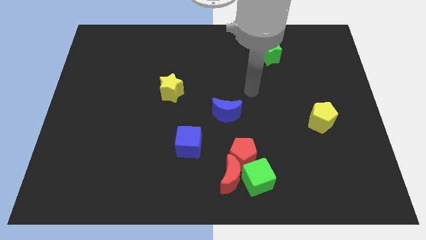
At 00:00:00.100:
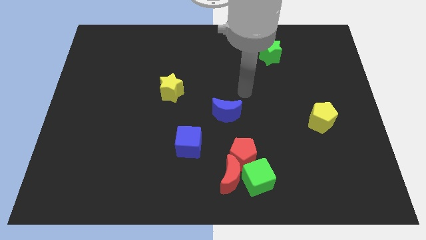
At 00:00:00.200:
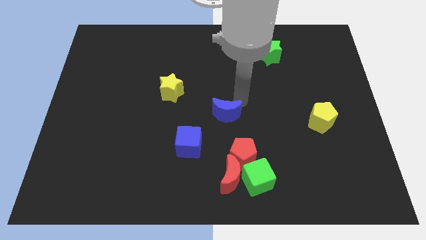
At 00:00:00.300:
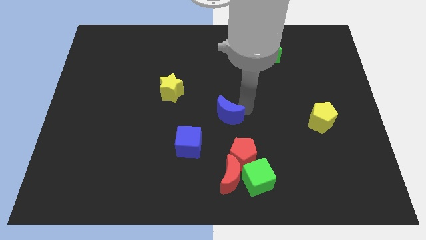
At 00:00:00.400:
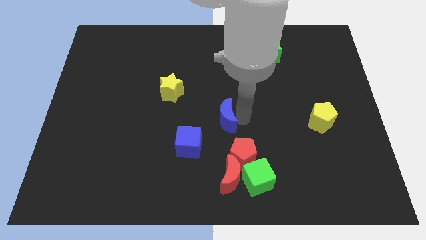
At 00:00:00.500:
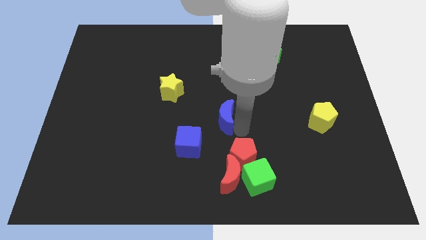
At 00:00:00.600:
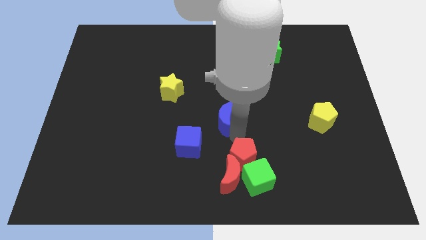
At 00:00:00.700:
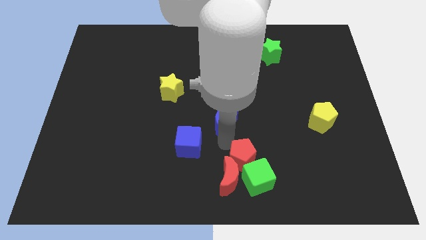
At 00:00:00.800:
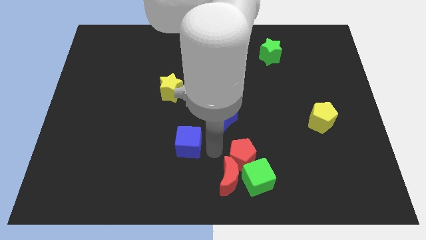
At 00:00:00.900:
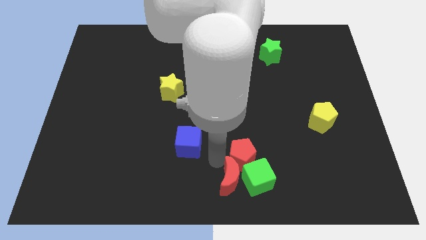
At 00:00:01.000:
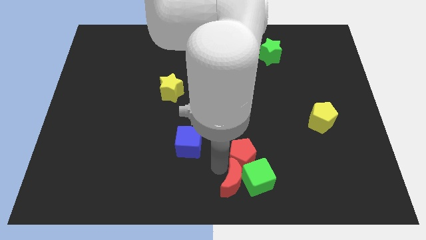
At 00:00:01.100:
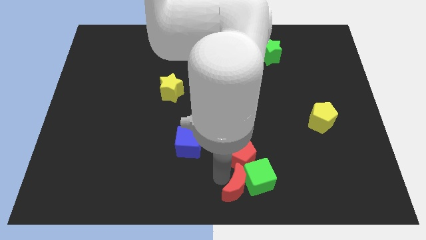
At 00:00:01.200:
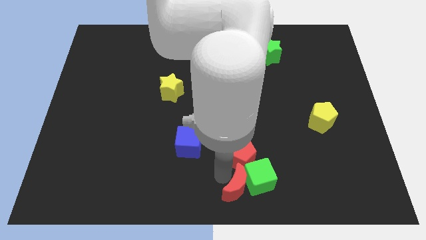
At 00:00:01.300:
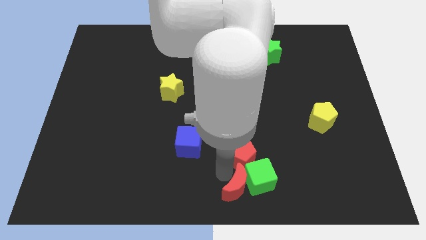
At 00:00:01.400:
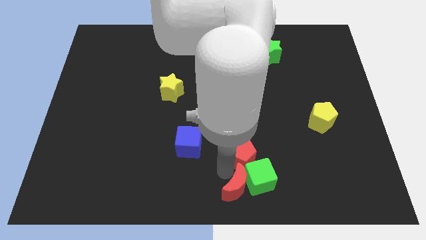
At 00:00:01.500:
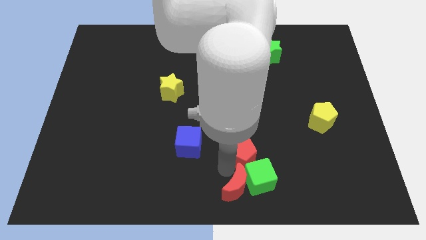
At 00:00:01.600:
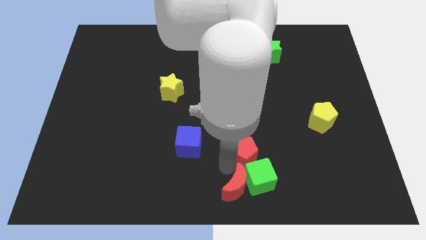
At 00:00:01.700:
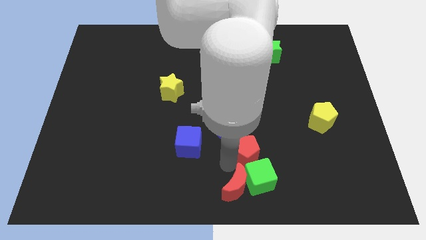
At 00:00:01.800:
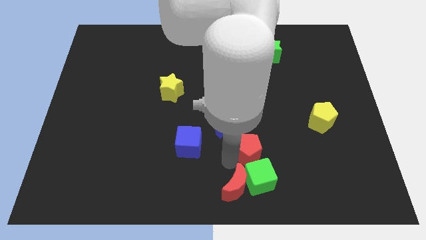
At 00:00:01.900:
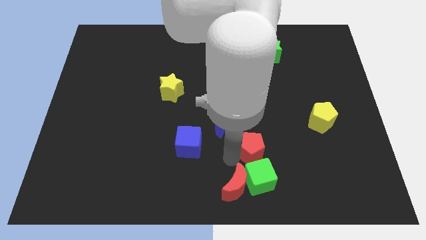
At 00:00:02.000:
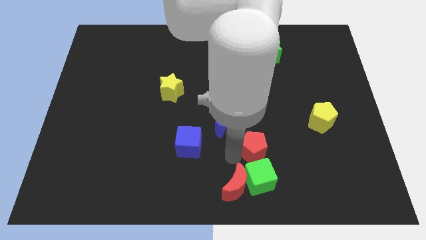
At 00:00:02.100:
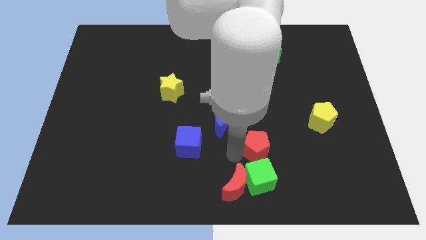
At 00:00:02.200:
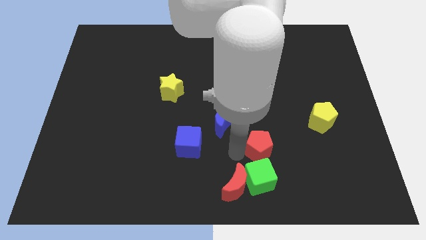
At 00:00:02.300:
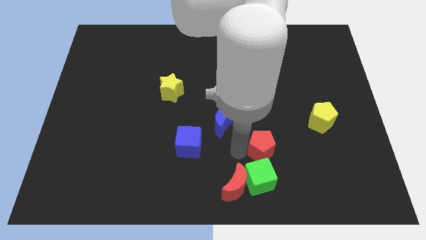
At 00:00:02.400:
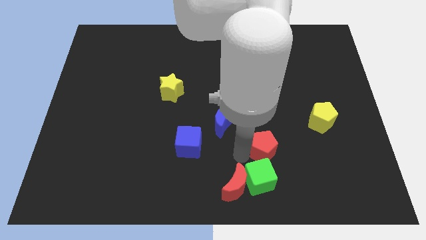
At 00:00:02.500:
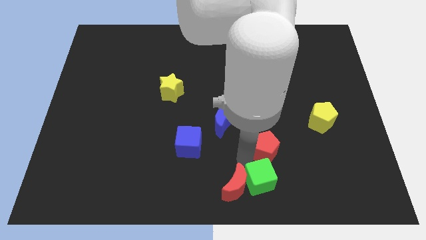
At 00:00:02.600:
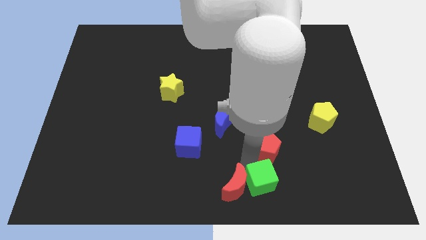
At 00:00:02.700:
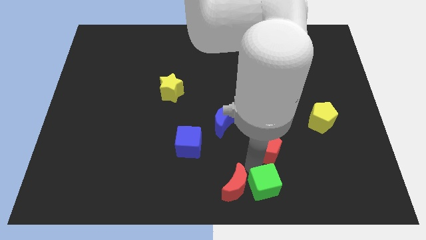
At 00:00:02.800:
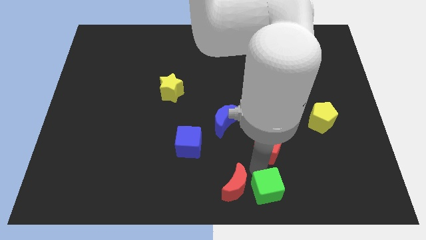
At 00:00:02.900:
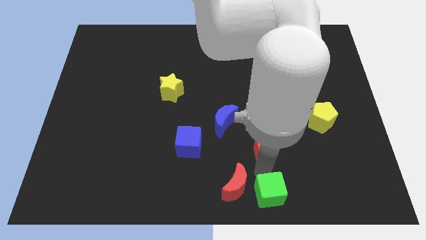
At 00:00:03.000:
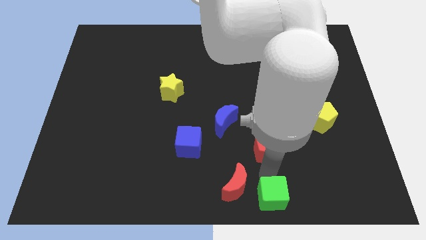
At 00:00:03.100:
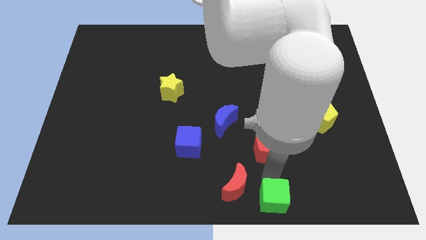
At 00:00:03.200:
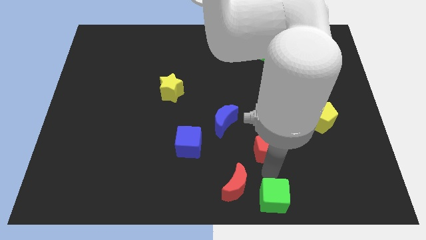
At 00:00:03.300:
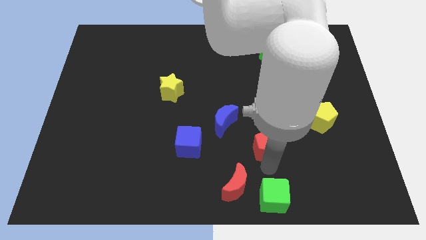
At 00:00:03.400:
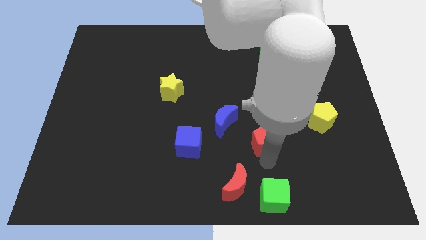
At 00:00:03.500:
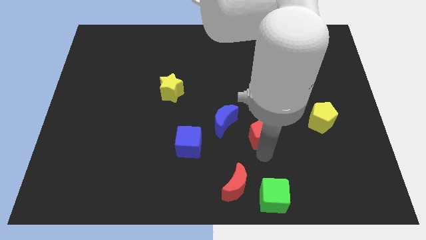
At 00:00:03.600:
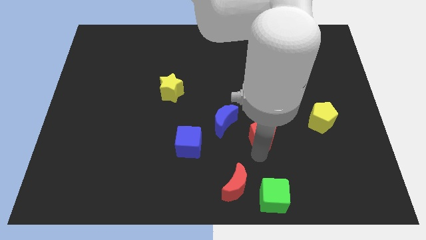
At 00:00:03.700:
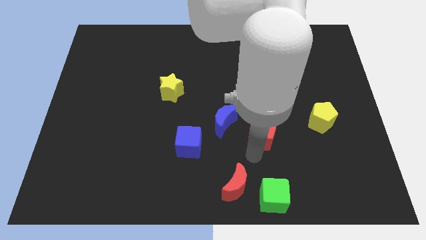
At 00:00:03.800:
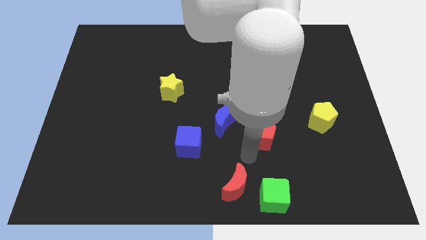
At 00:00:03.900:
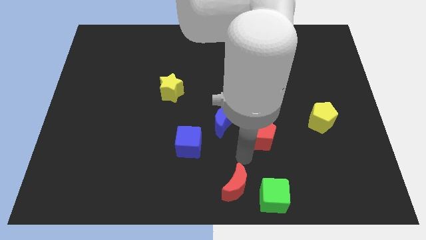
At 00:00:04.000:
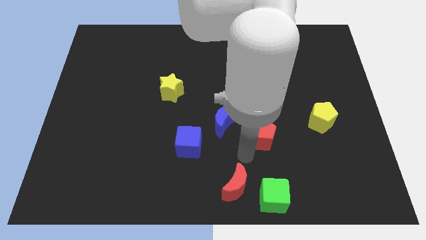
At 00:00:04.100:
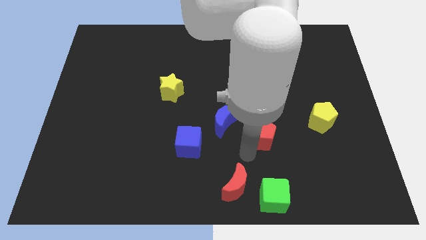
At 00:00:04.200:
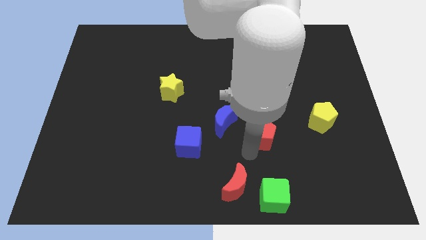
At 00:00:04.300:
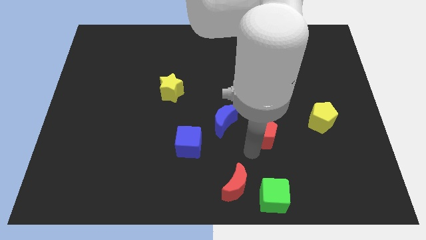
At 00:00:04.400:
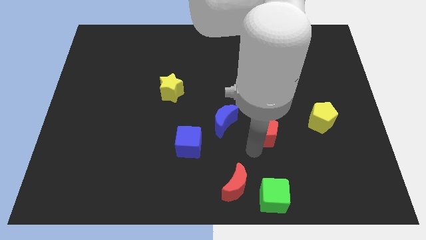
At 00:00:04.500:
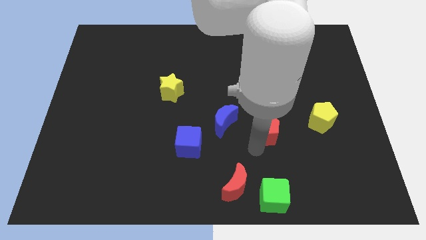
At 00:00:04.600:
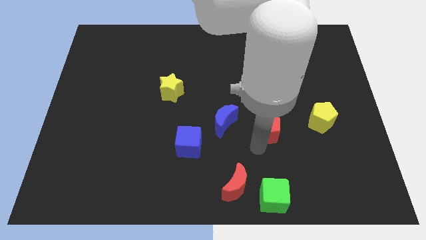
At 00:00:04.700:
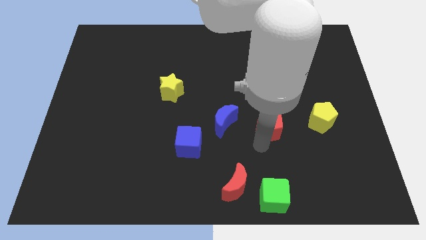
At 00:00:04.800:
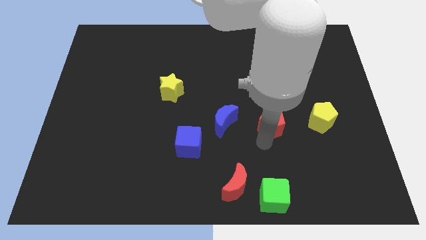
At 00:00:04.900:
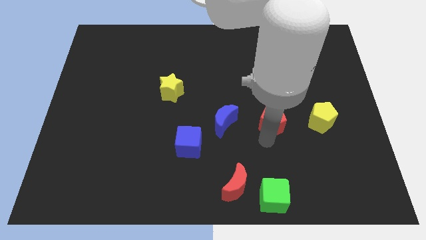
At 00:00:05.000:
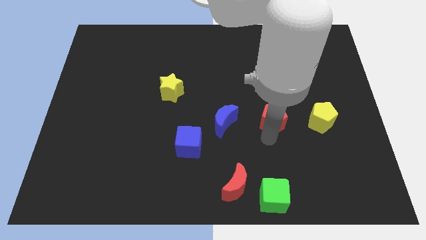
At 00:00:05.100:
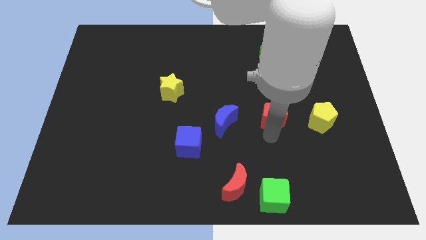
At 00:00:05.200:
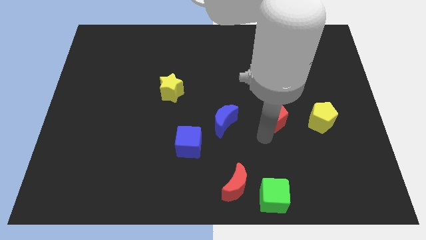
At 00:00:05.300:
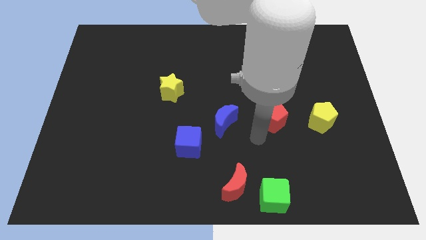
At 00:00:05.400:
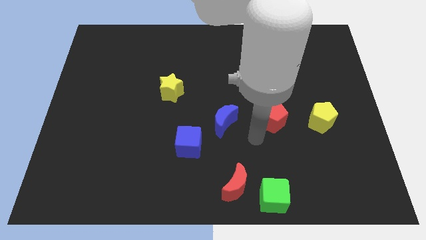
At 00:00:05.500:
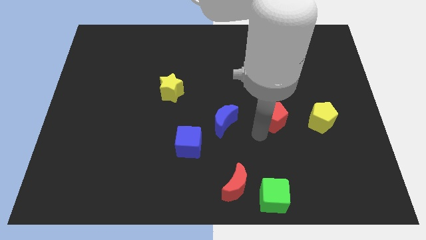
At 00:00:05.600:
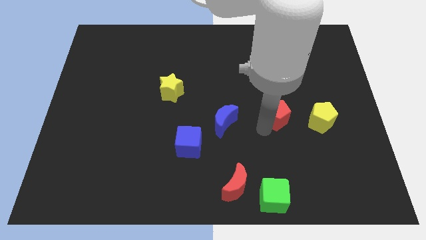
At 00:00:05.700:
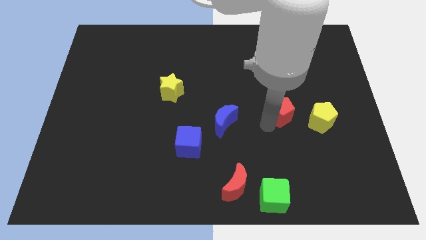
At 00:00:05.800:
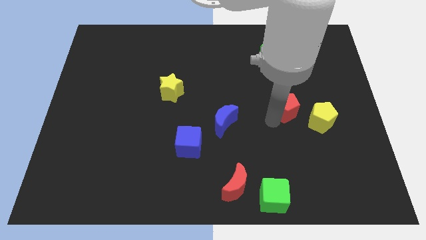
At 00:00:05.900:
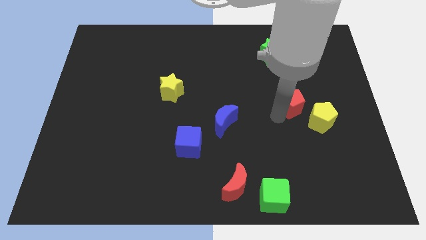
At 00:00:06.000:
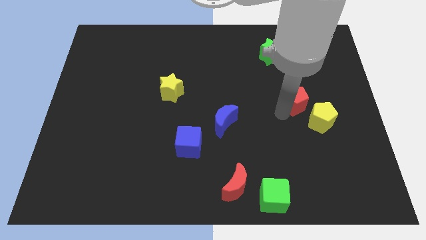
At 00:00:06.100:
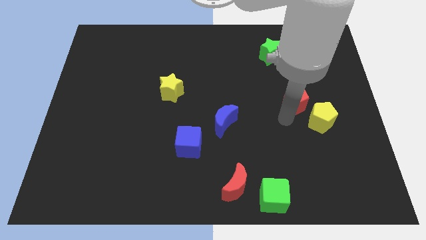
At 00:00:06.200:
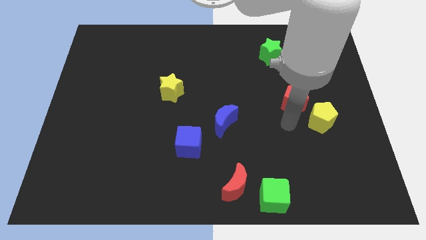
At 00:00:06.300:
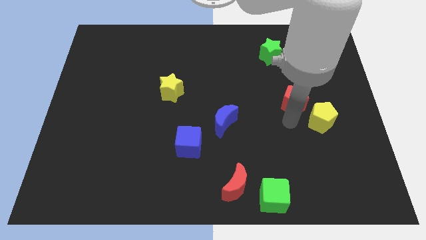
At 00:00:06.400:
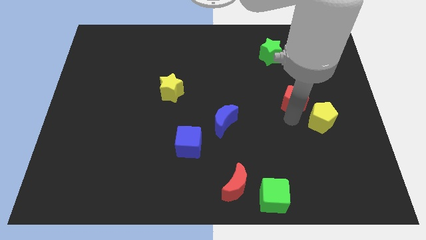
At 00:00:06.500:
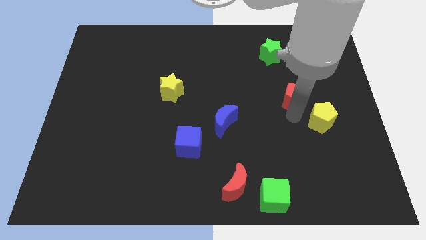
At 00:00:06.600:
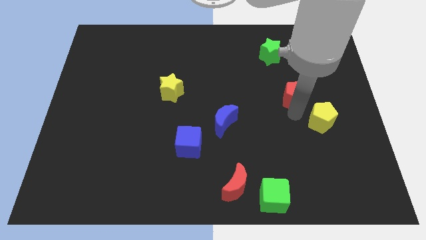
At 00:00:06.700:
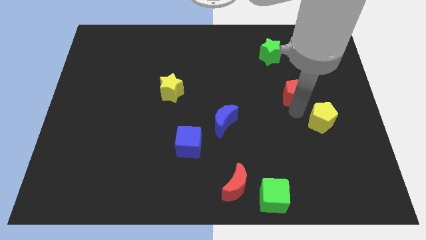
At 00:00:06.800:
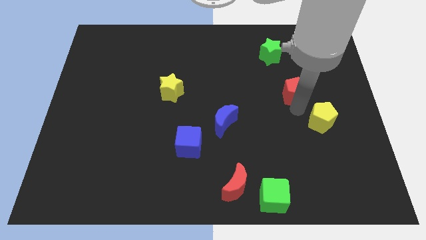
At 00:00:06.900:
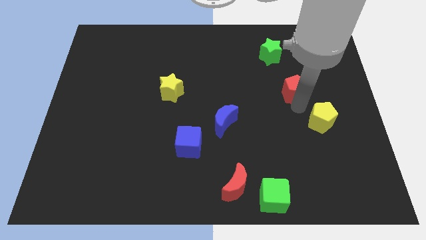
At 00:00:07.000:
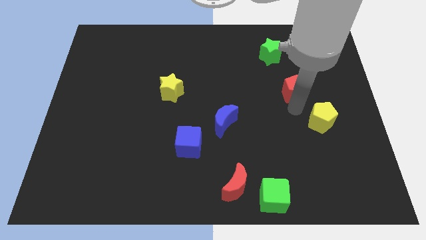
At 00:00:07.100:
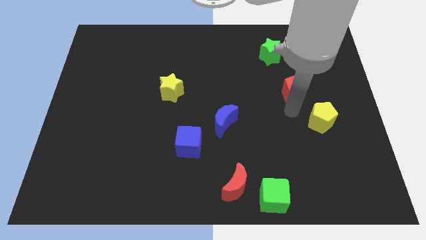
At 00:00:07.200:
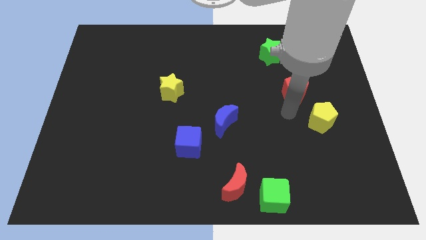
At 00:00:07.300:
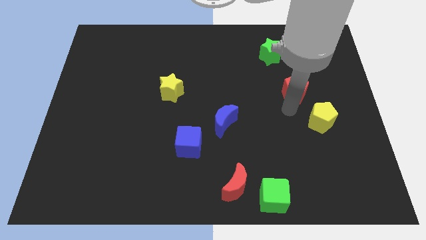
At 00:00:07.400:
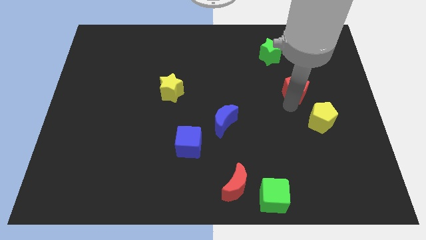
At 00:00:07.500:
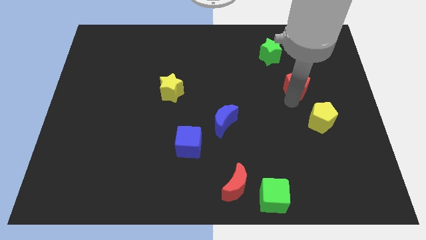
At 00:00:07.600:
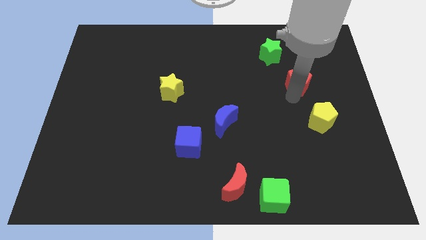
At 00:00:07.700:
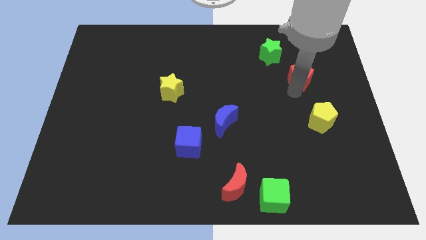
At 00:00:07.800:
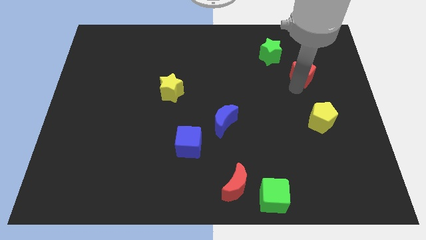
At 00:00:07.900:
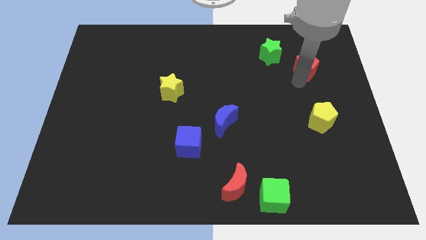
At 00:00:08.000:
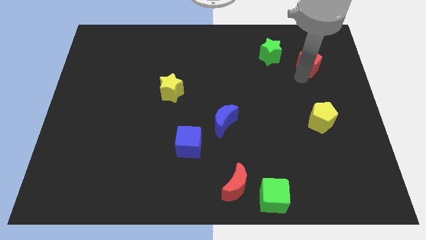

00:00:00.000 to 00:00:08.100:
push the red pentagon just right of the green star
